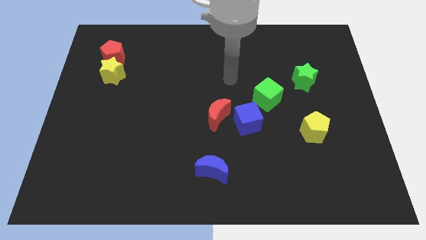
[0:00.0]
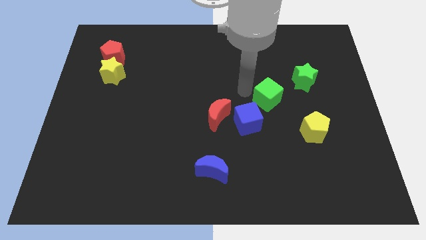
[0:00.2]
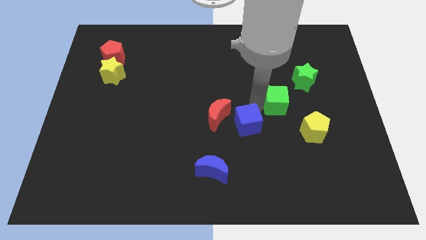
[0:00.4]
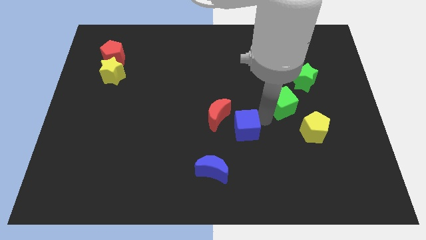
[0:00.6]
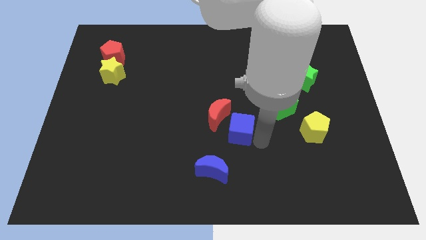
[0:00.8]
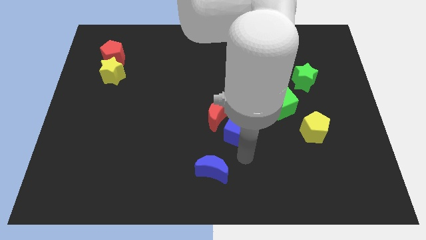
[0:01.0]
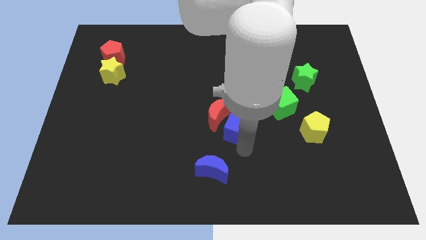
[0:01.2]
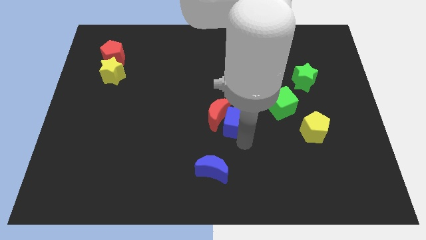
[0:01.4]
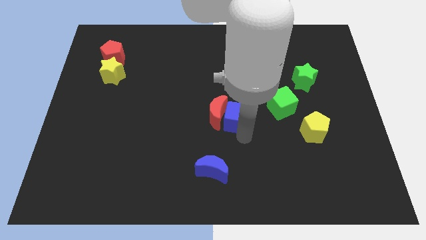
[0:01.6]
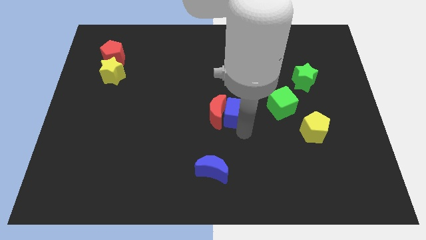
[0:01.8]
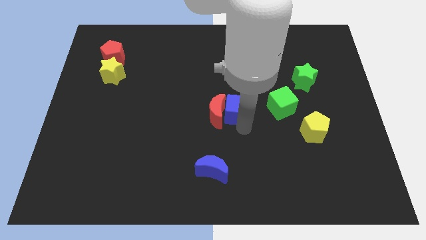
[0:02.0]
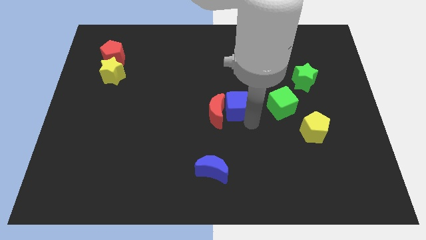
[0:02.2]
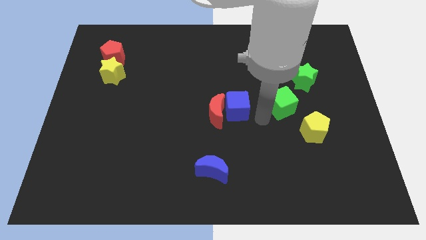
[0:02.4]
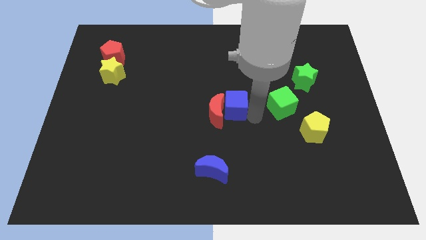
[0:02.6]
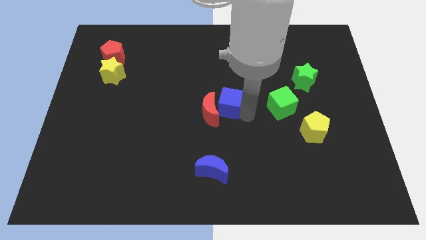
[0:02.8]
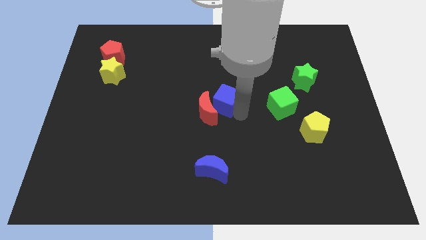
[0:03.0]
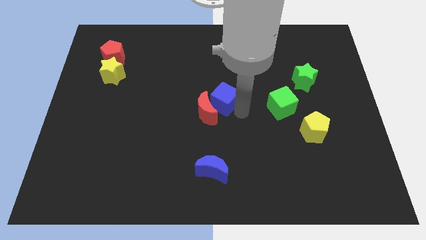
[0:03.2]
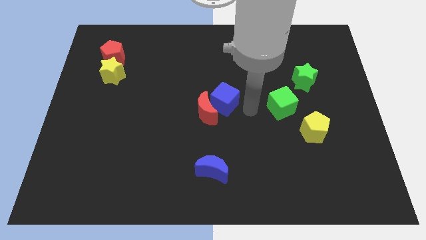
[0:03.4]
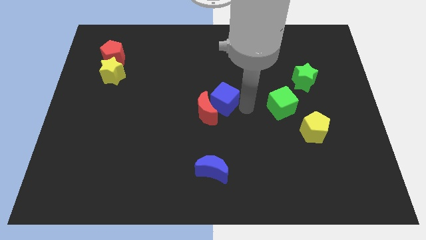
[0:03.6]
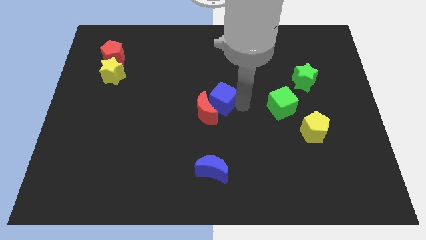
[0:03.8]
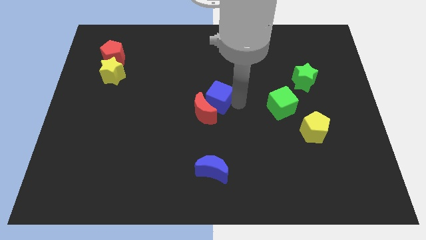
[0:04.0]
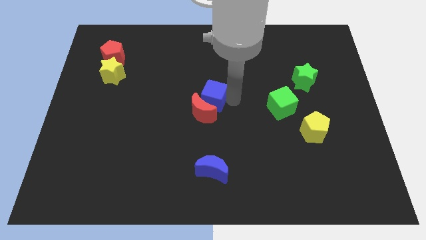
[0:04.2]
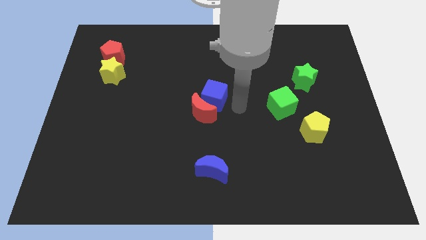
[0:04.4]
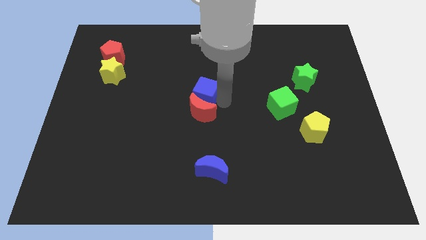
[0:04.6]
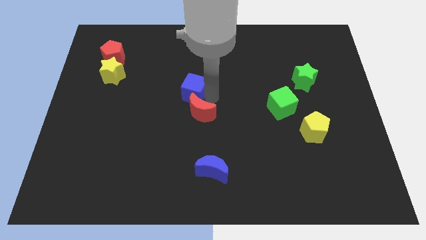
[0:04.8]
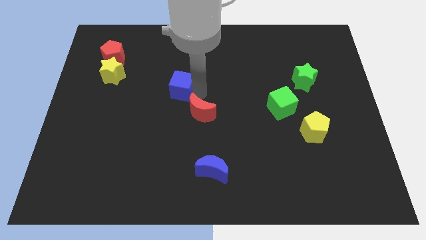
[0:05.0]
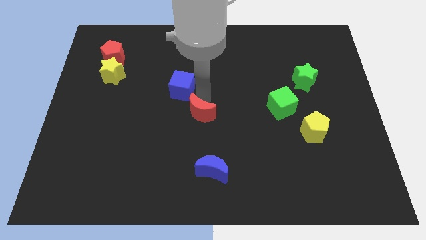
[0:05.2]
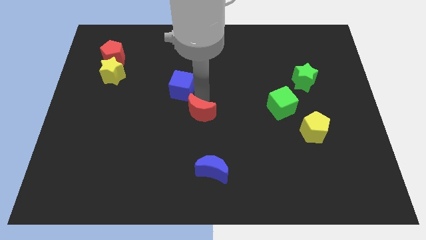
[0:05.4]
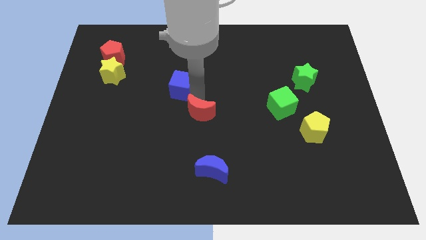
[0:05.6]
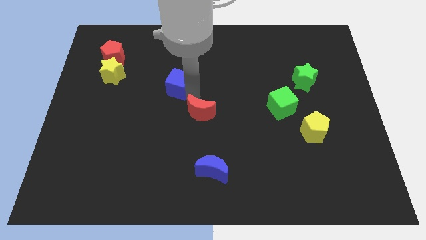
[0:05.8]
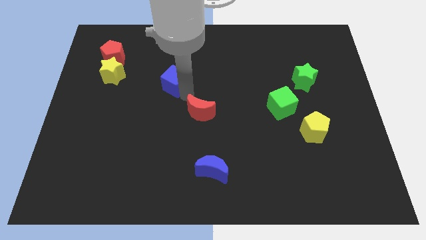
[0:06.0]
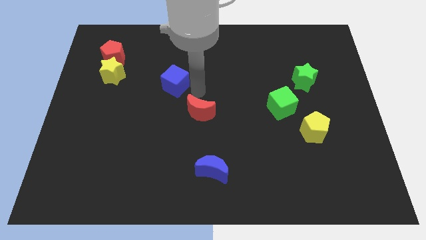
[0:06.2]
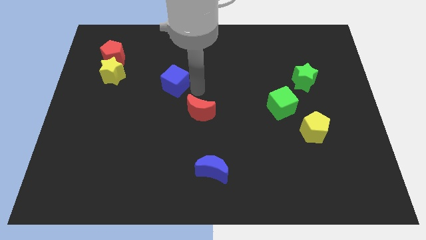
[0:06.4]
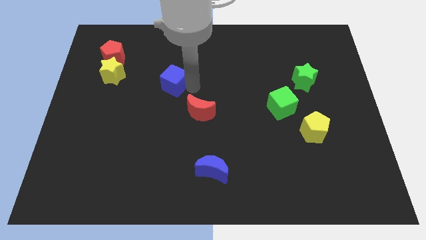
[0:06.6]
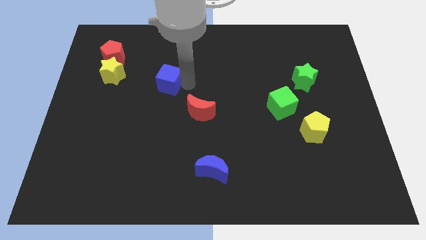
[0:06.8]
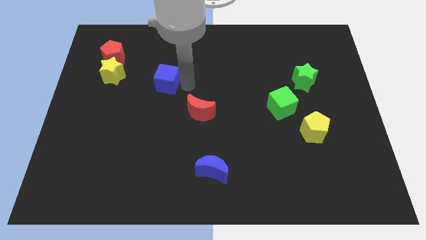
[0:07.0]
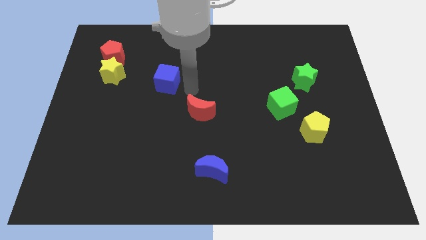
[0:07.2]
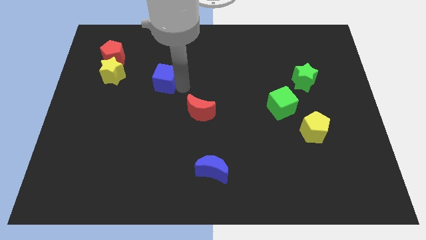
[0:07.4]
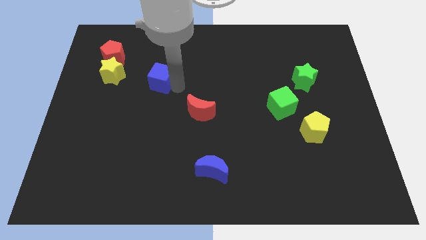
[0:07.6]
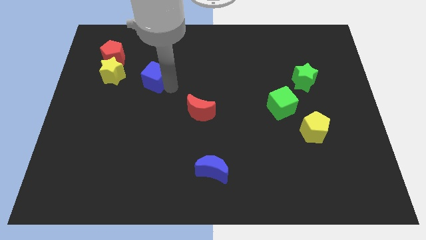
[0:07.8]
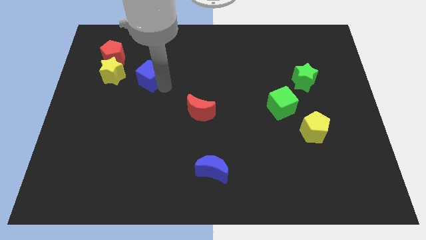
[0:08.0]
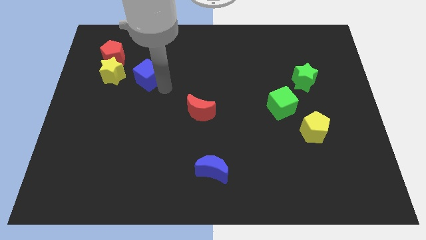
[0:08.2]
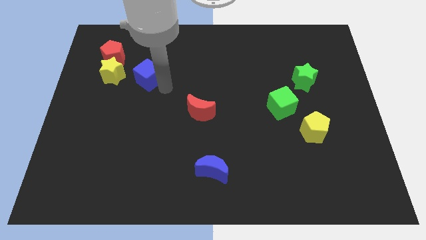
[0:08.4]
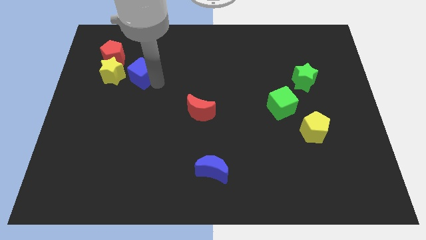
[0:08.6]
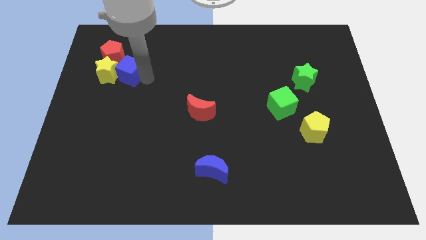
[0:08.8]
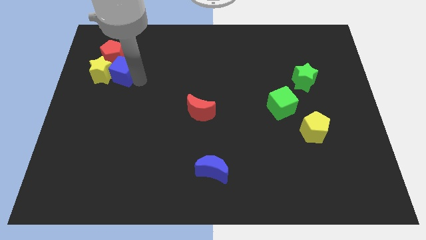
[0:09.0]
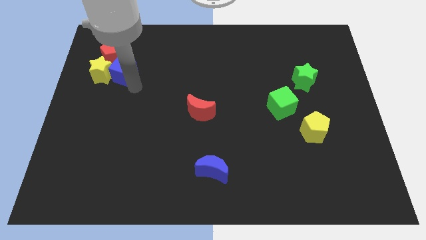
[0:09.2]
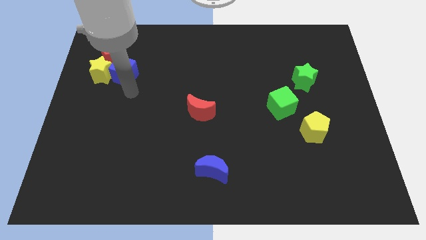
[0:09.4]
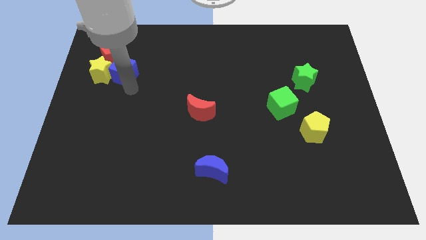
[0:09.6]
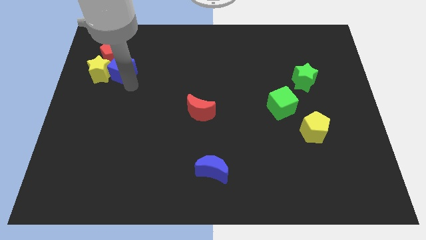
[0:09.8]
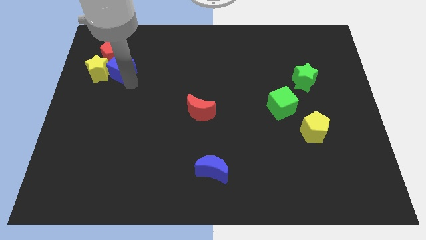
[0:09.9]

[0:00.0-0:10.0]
put the blue cube close to the red pentagon

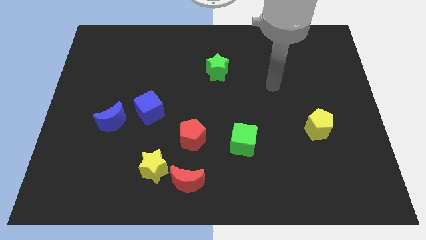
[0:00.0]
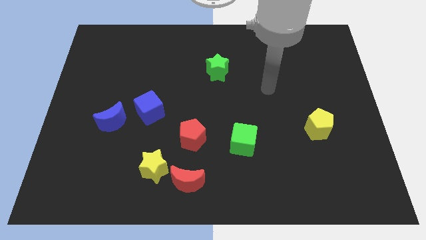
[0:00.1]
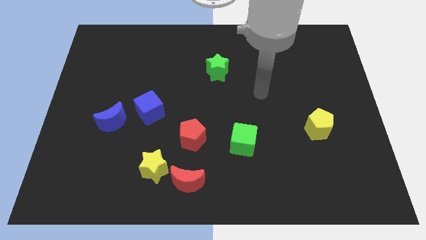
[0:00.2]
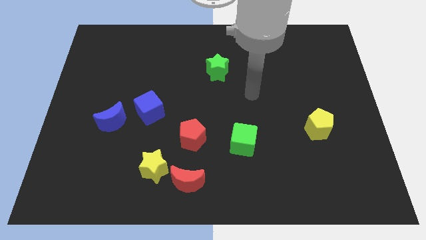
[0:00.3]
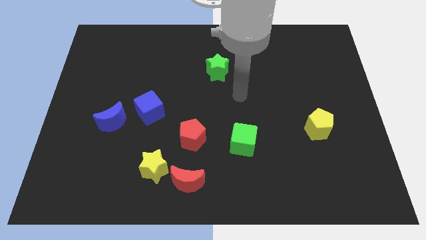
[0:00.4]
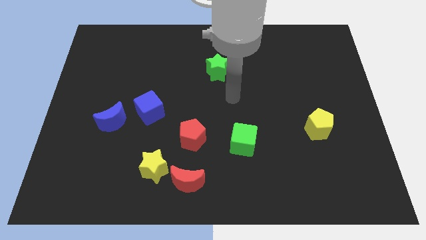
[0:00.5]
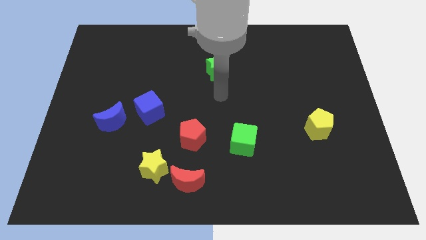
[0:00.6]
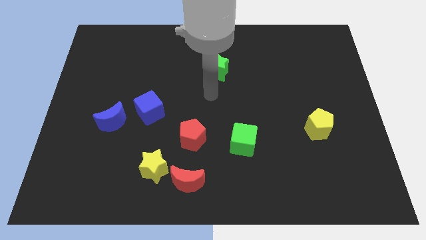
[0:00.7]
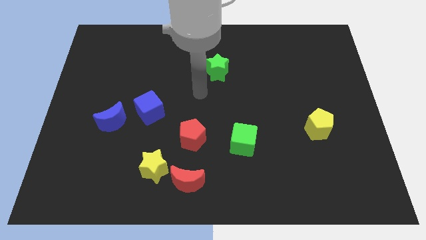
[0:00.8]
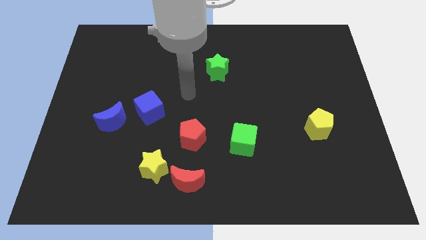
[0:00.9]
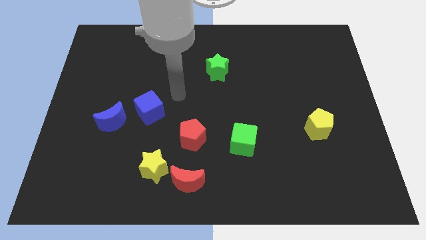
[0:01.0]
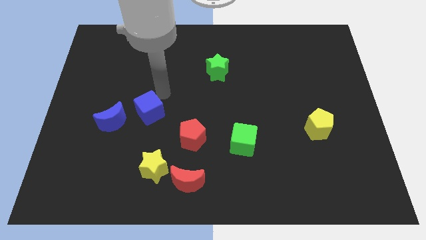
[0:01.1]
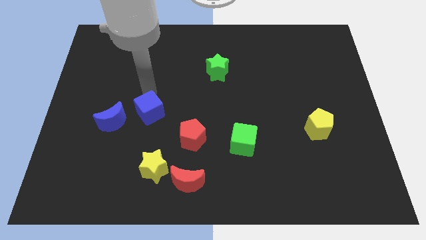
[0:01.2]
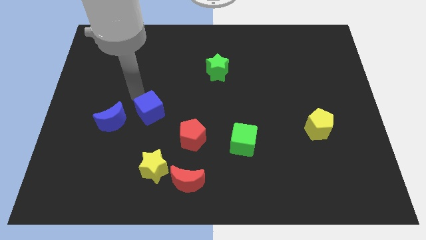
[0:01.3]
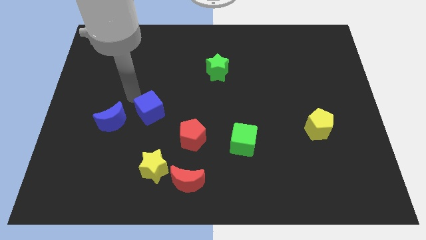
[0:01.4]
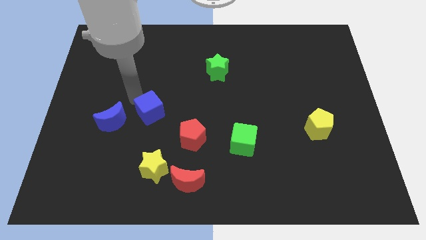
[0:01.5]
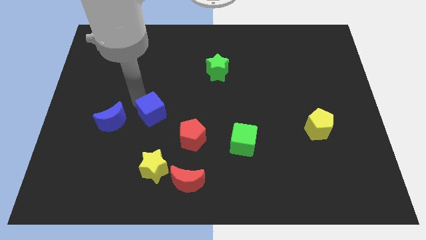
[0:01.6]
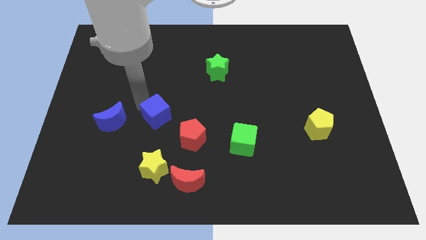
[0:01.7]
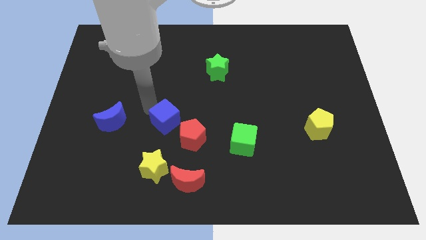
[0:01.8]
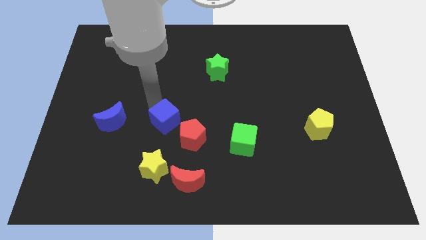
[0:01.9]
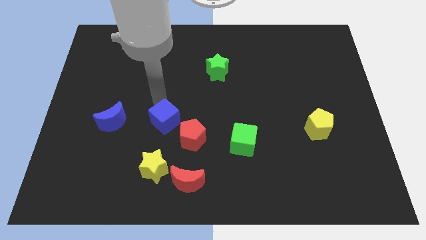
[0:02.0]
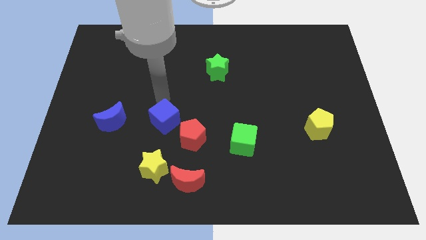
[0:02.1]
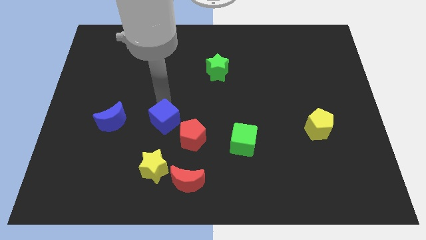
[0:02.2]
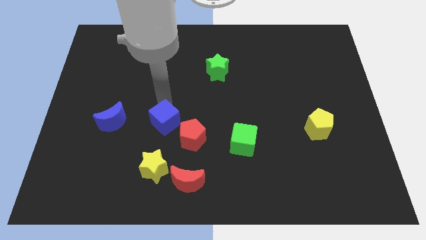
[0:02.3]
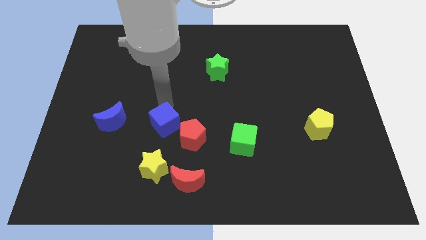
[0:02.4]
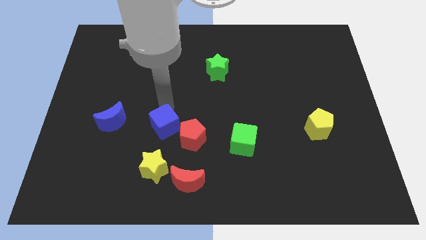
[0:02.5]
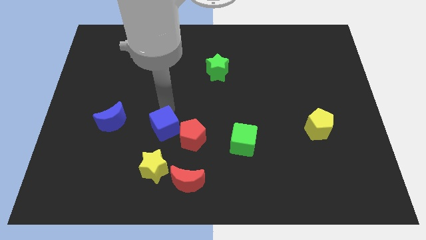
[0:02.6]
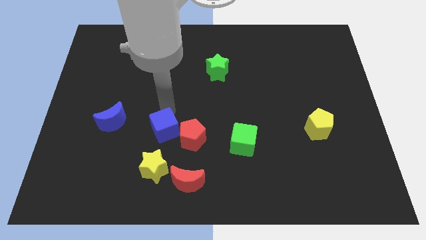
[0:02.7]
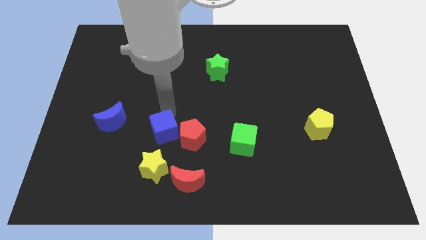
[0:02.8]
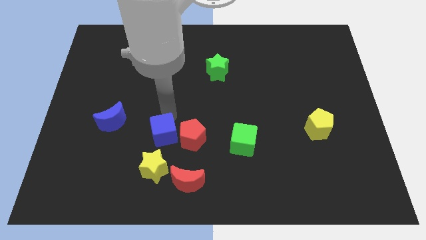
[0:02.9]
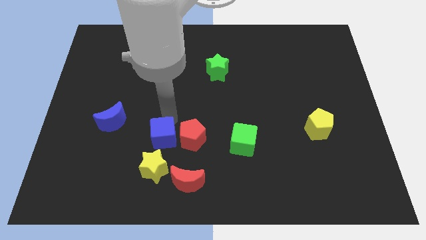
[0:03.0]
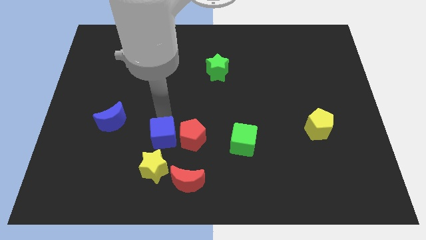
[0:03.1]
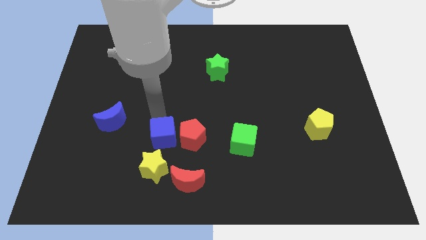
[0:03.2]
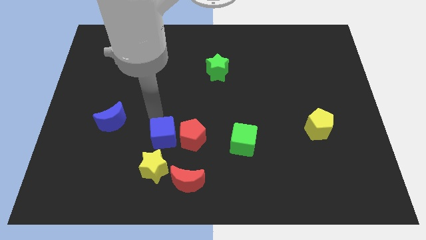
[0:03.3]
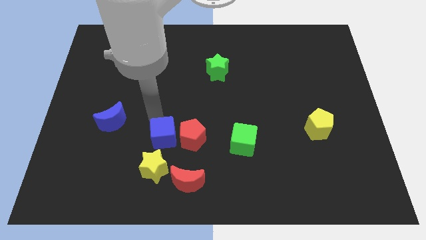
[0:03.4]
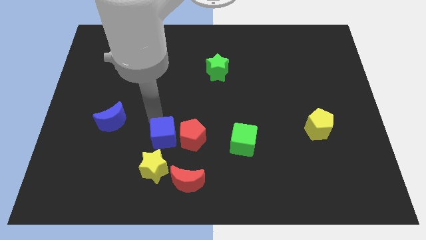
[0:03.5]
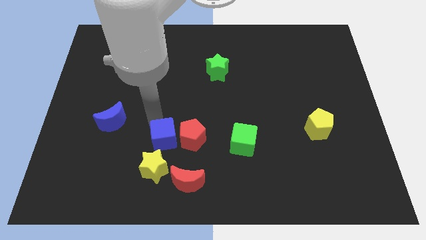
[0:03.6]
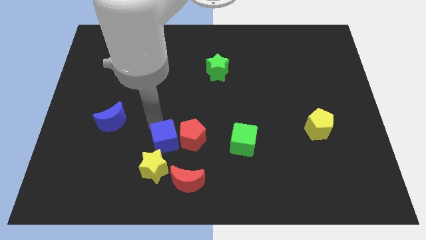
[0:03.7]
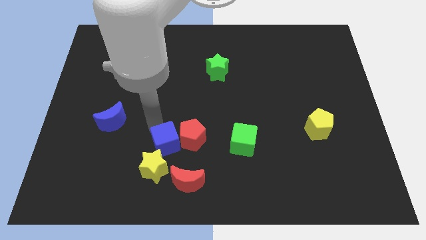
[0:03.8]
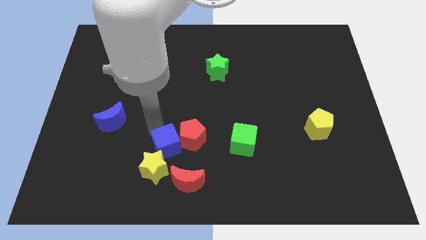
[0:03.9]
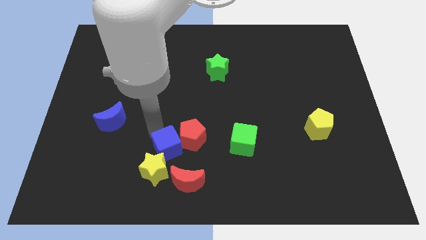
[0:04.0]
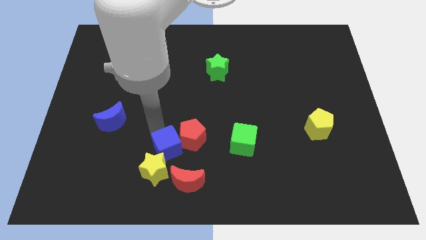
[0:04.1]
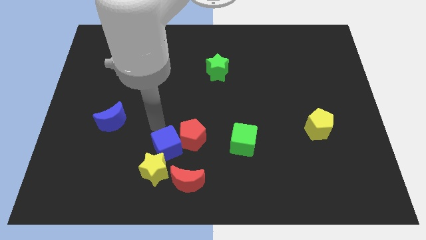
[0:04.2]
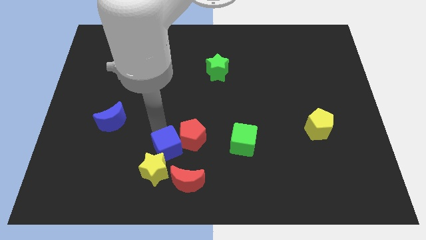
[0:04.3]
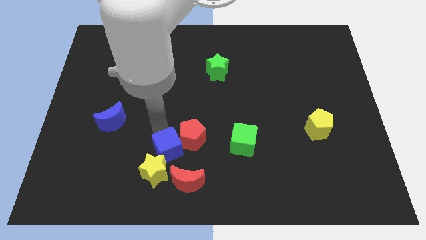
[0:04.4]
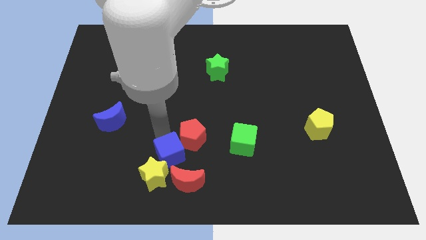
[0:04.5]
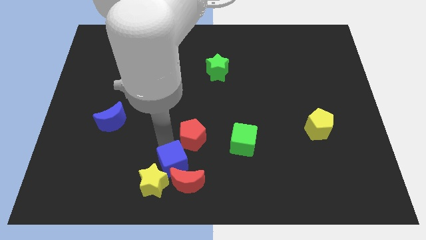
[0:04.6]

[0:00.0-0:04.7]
slide the blue cube towards the red moon
